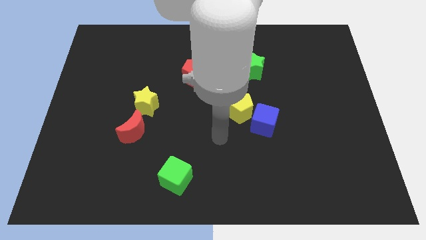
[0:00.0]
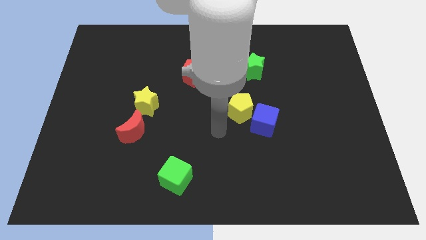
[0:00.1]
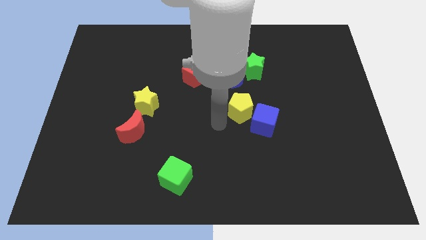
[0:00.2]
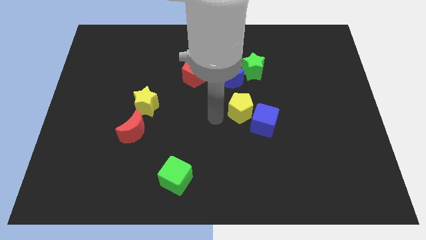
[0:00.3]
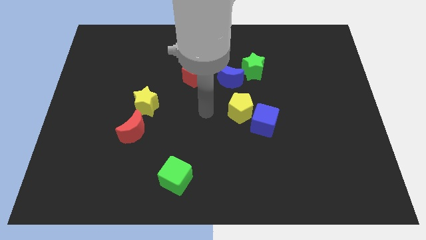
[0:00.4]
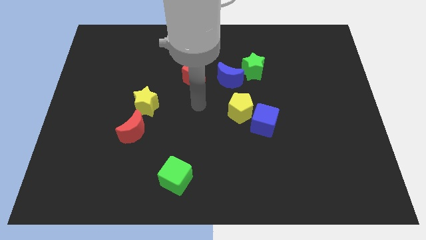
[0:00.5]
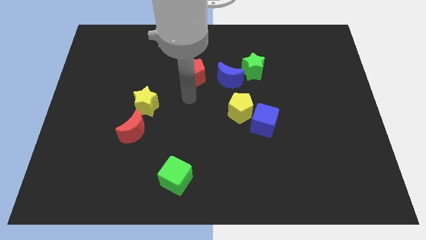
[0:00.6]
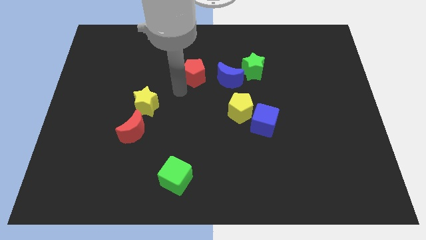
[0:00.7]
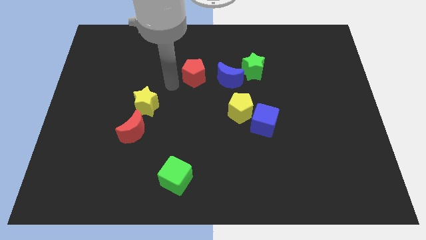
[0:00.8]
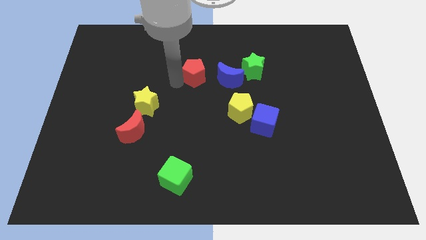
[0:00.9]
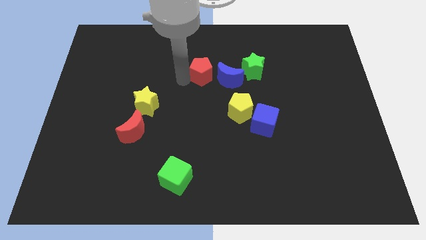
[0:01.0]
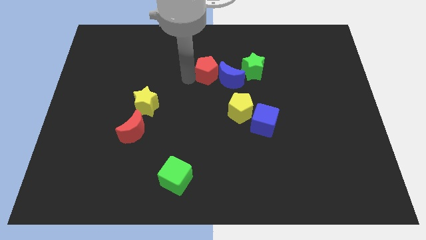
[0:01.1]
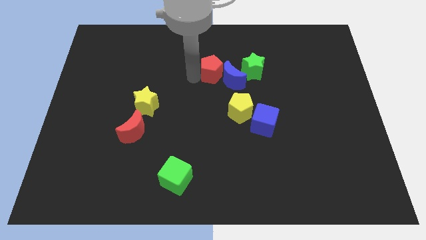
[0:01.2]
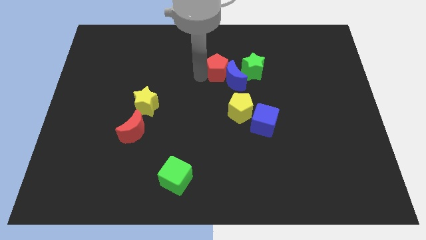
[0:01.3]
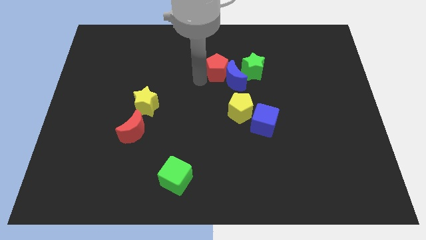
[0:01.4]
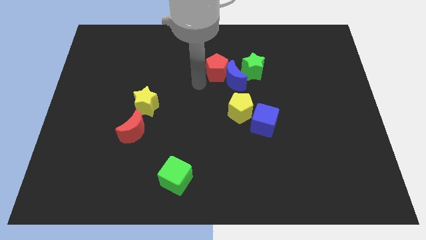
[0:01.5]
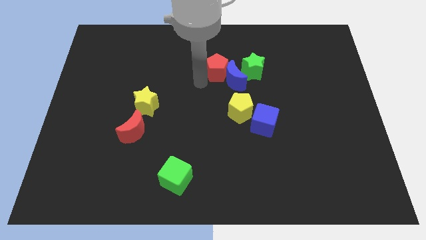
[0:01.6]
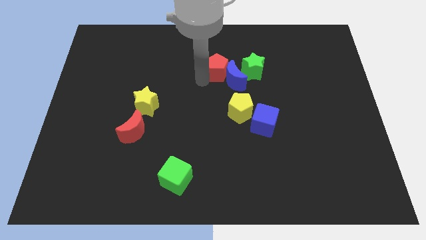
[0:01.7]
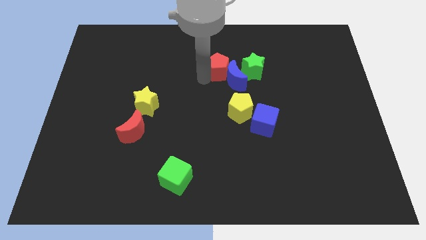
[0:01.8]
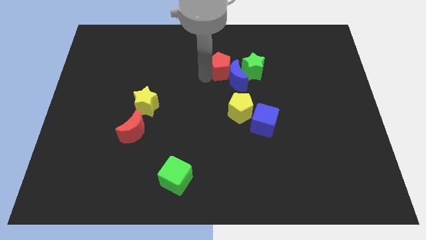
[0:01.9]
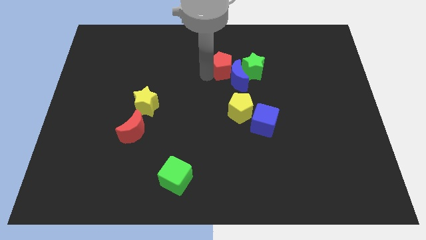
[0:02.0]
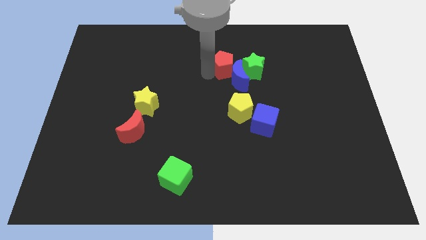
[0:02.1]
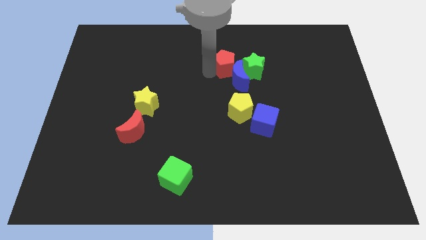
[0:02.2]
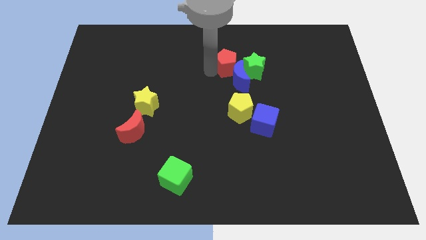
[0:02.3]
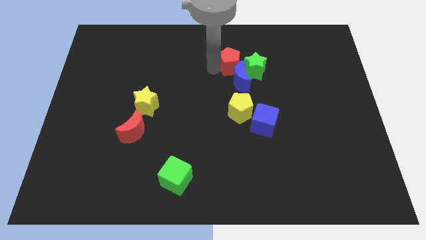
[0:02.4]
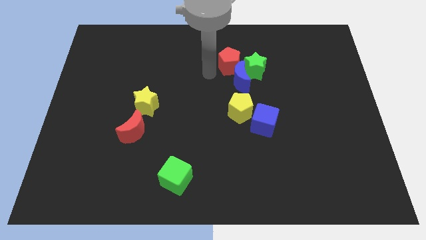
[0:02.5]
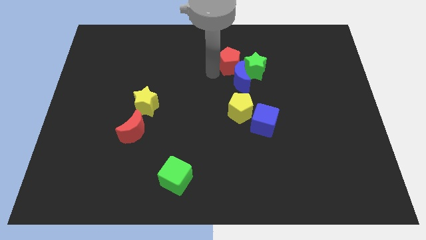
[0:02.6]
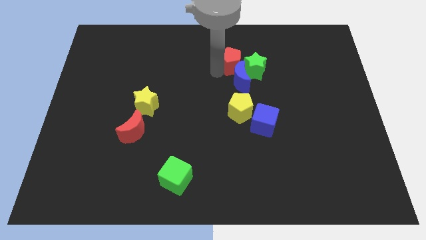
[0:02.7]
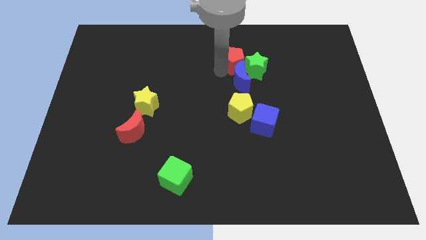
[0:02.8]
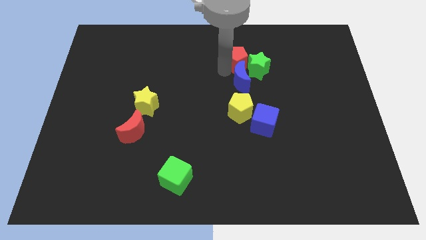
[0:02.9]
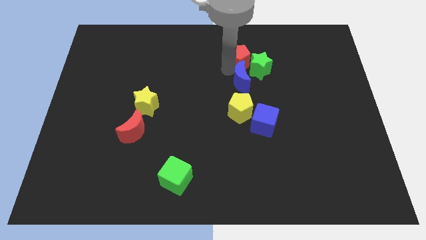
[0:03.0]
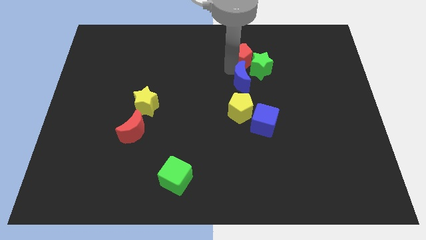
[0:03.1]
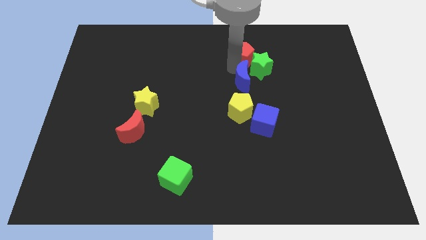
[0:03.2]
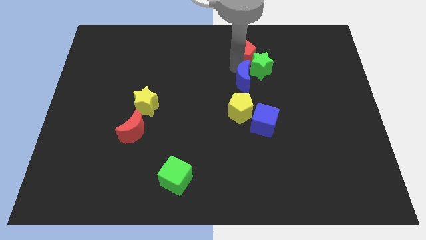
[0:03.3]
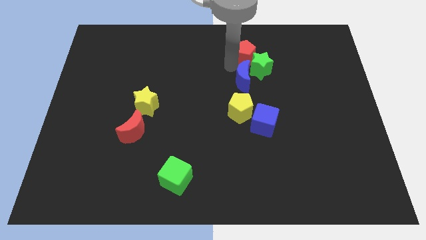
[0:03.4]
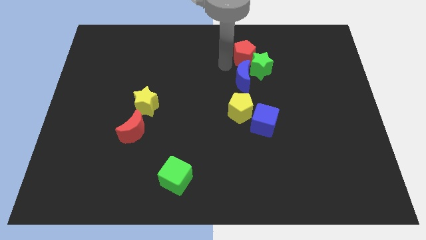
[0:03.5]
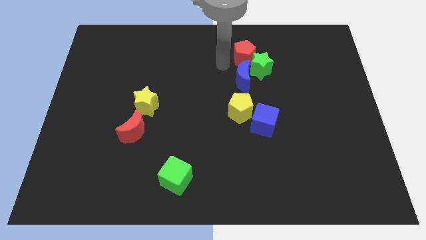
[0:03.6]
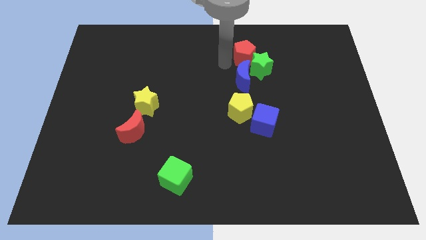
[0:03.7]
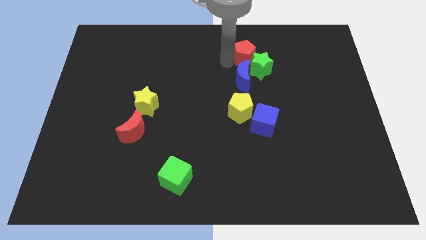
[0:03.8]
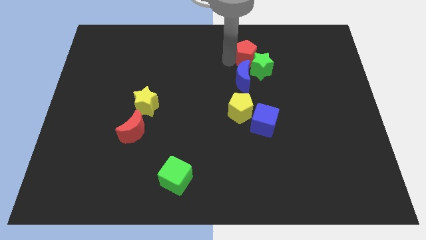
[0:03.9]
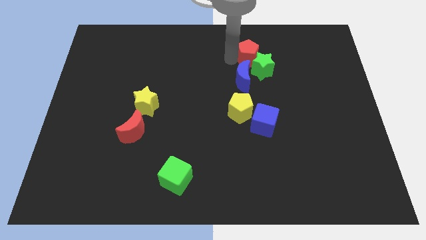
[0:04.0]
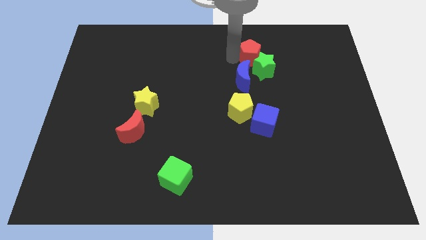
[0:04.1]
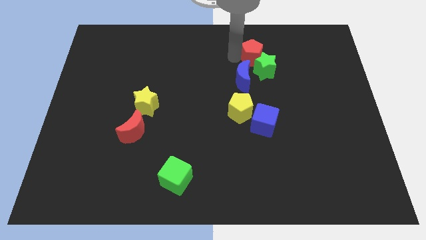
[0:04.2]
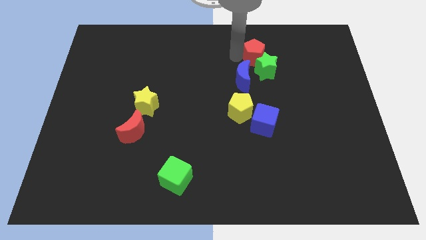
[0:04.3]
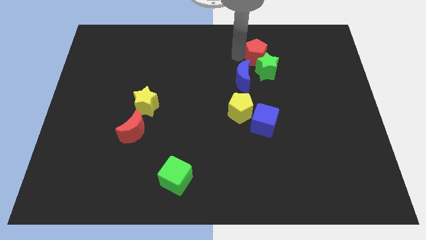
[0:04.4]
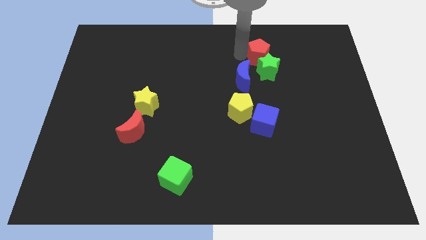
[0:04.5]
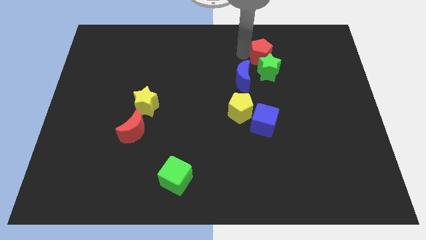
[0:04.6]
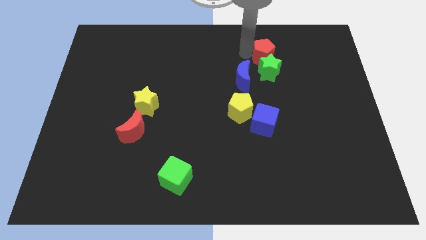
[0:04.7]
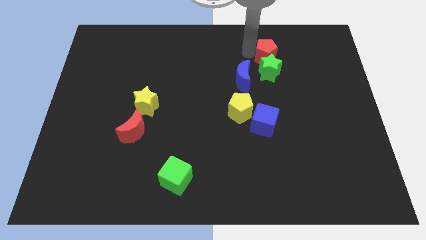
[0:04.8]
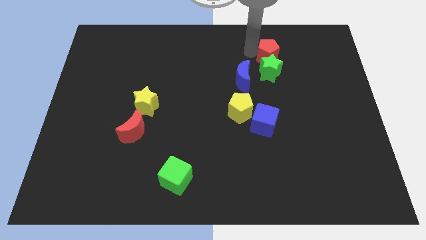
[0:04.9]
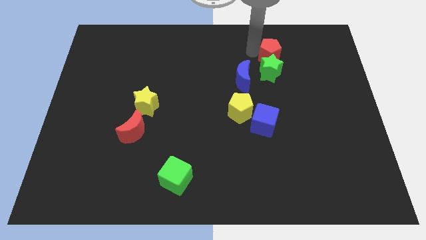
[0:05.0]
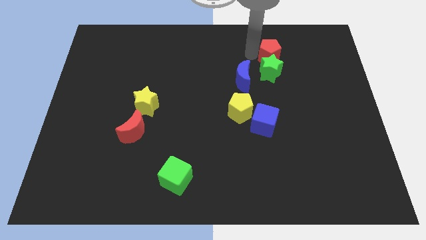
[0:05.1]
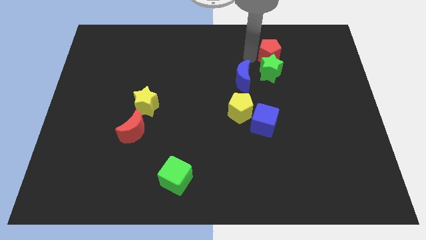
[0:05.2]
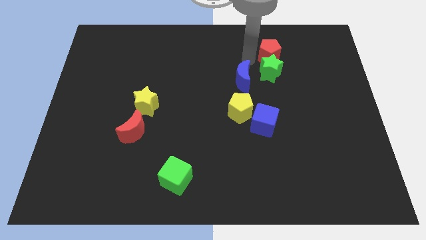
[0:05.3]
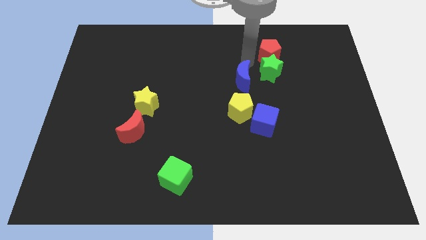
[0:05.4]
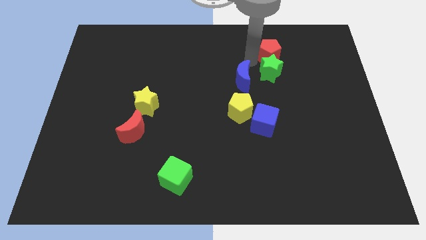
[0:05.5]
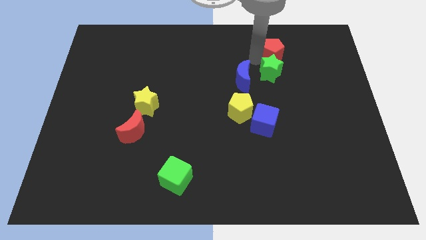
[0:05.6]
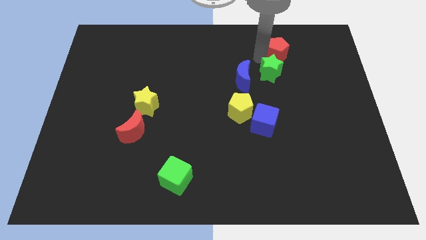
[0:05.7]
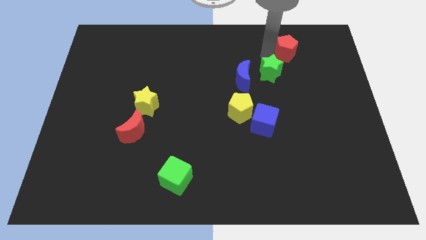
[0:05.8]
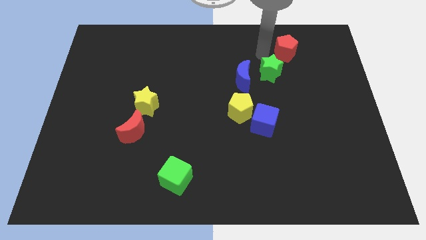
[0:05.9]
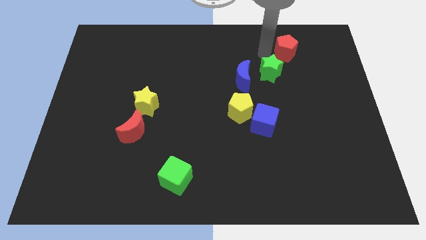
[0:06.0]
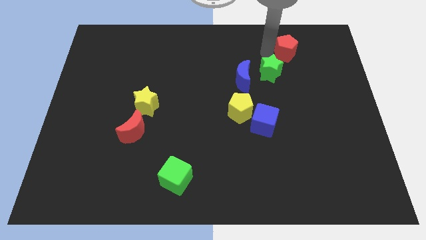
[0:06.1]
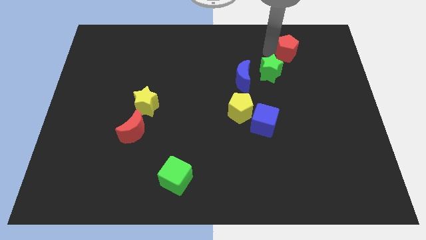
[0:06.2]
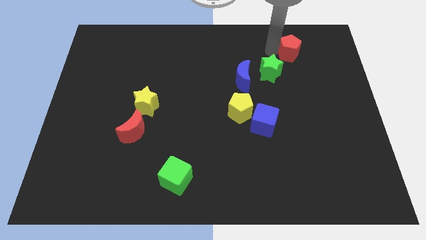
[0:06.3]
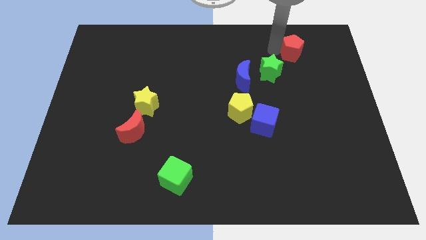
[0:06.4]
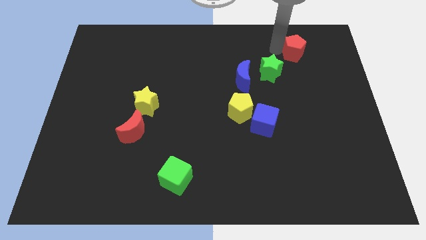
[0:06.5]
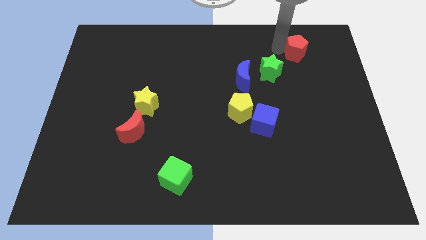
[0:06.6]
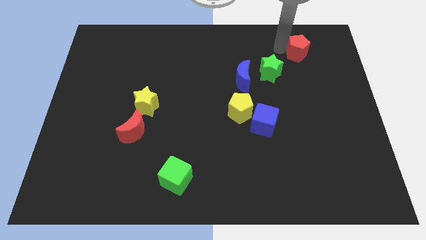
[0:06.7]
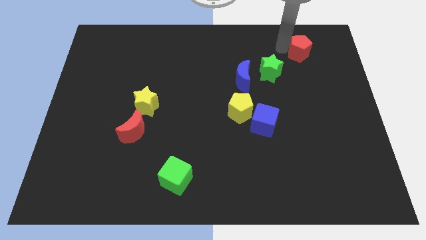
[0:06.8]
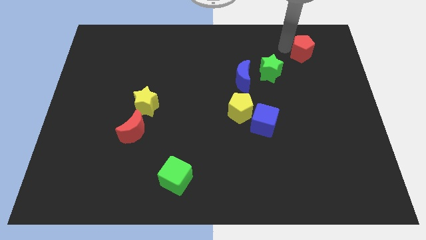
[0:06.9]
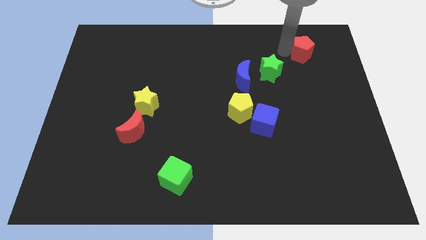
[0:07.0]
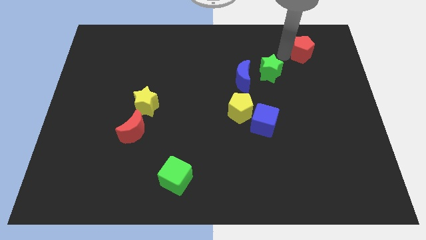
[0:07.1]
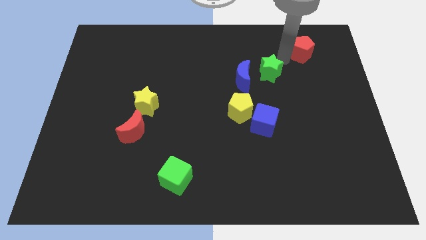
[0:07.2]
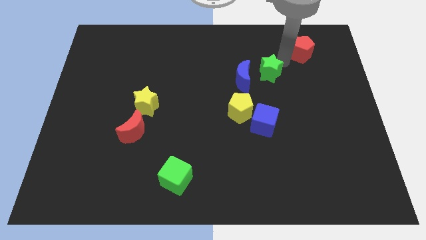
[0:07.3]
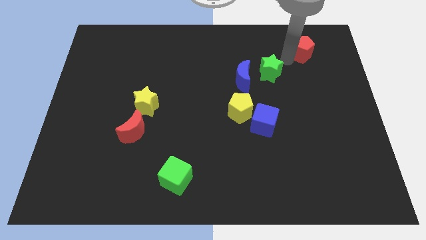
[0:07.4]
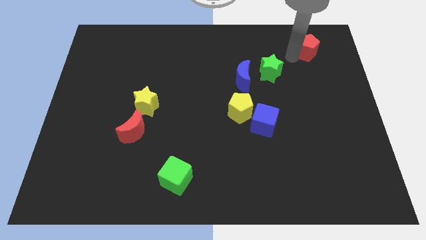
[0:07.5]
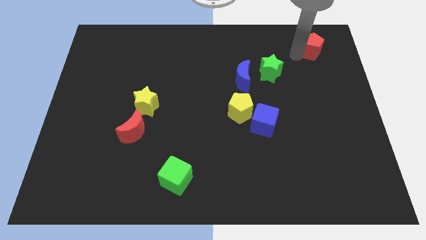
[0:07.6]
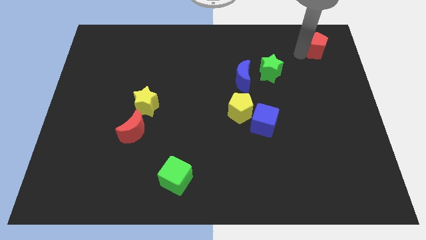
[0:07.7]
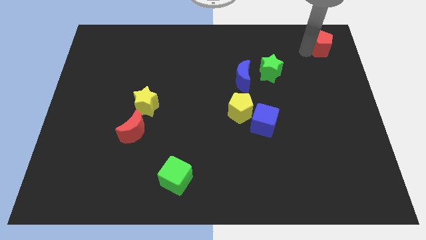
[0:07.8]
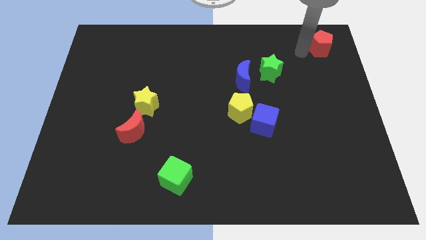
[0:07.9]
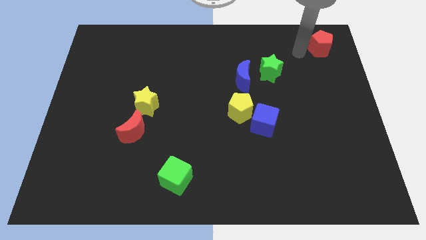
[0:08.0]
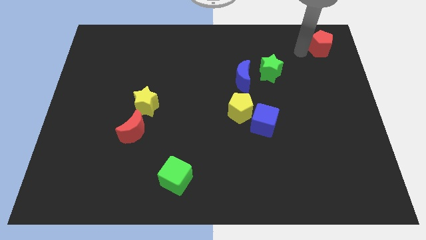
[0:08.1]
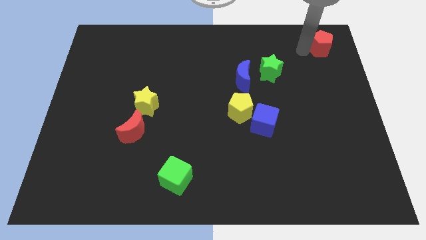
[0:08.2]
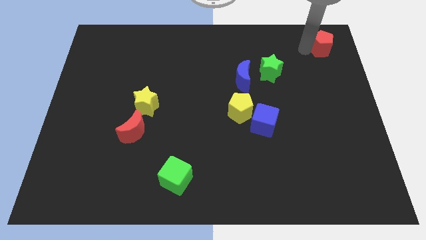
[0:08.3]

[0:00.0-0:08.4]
slide the red pentagon to the top right corner
